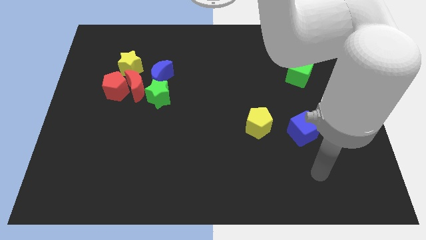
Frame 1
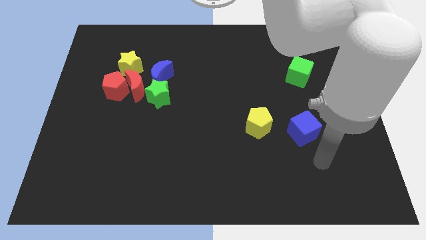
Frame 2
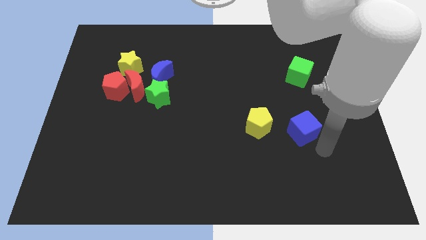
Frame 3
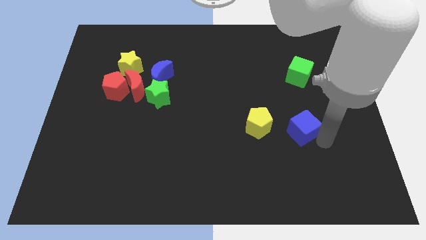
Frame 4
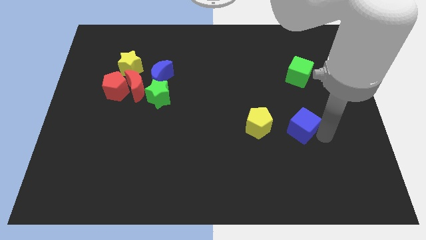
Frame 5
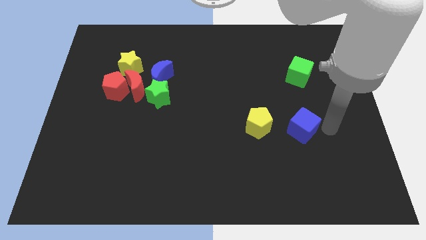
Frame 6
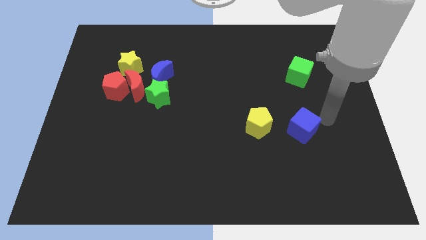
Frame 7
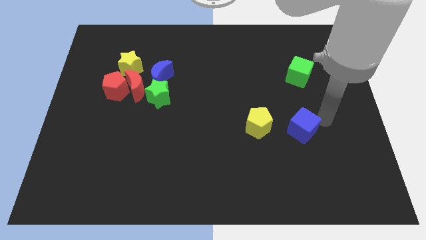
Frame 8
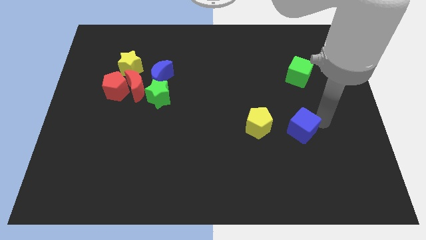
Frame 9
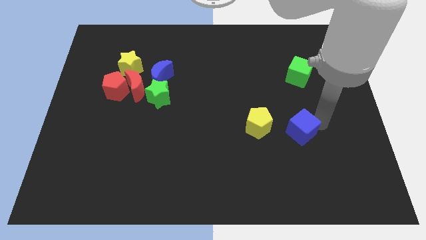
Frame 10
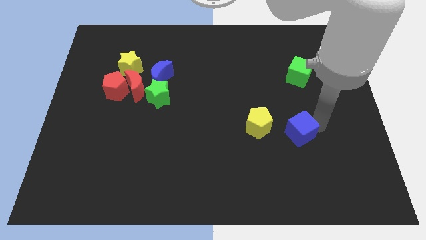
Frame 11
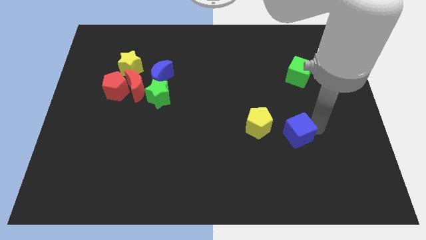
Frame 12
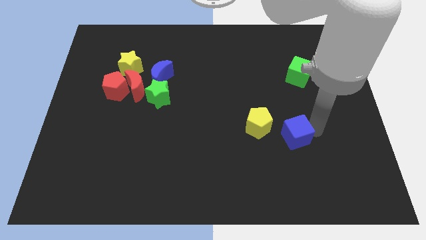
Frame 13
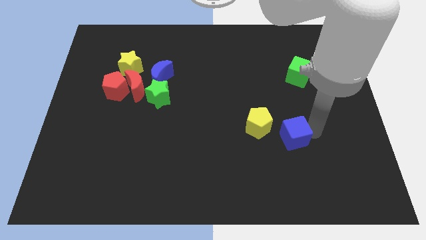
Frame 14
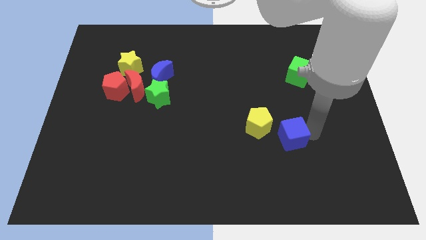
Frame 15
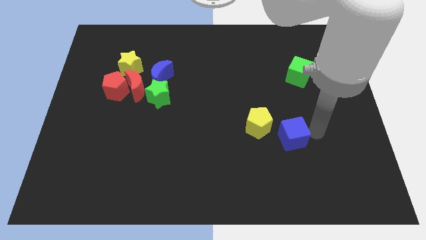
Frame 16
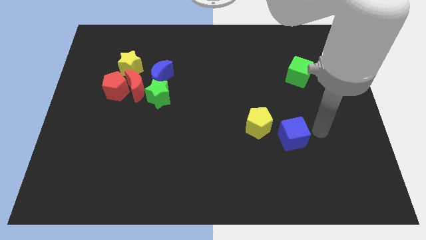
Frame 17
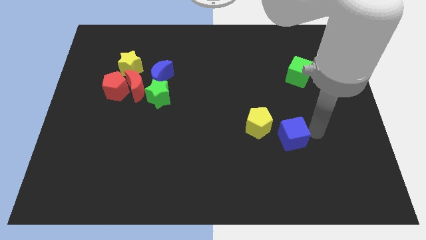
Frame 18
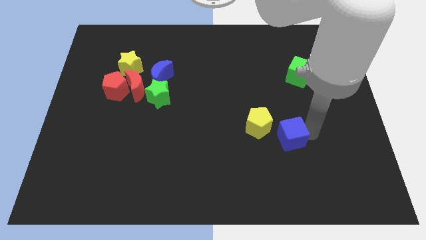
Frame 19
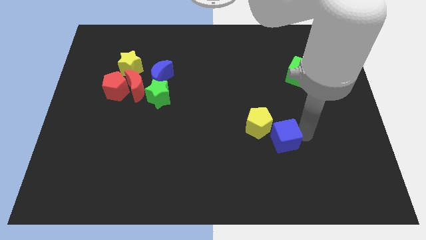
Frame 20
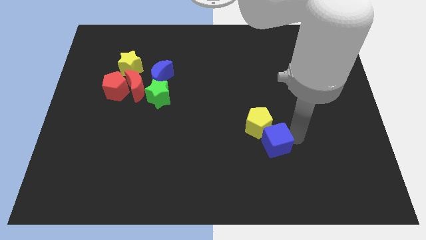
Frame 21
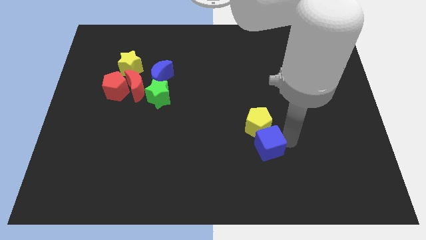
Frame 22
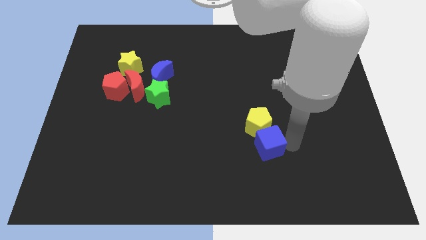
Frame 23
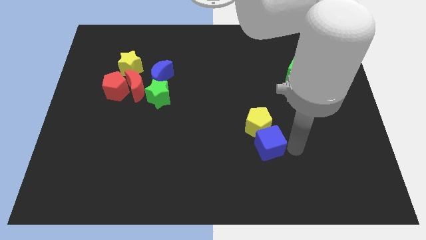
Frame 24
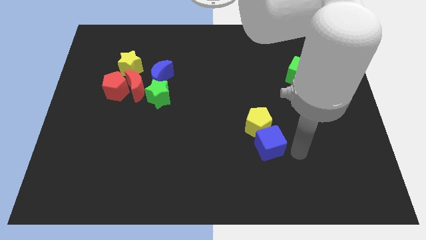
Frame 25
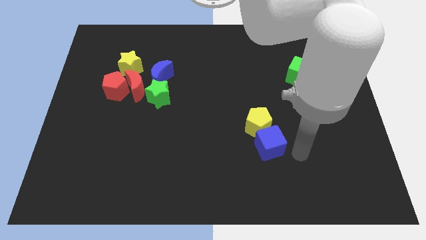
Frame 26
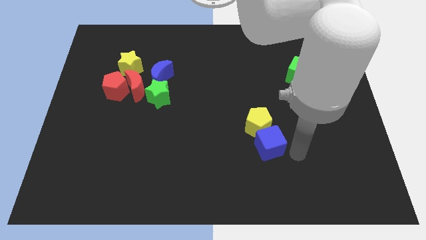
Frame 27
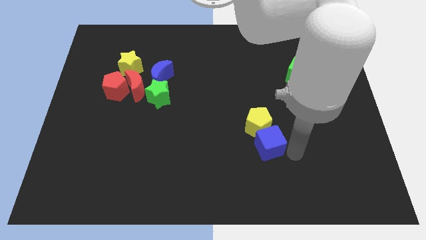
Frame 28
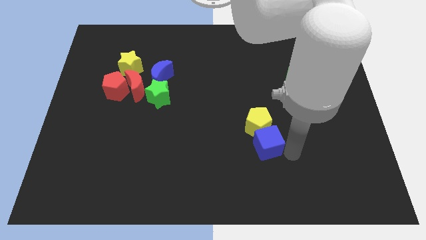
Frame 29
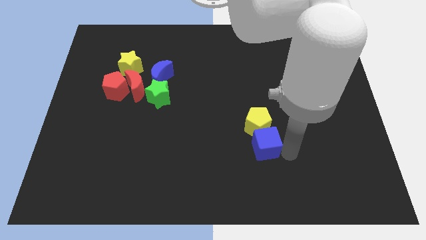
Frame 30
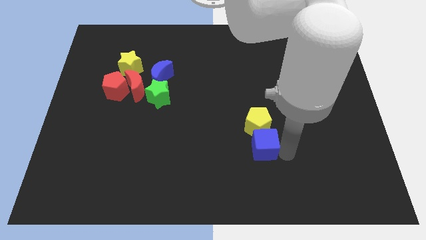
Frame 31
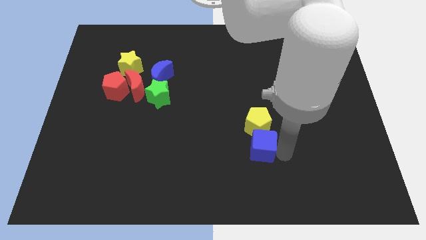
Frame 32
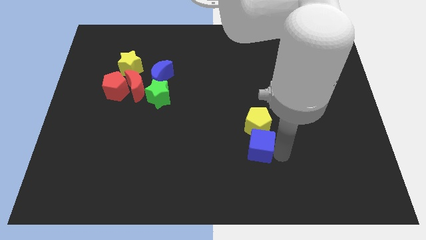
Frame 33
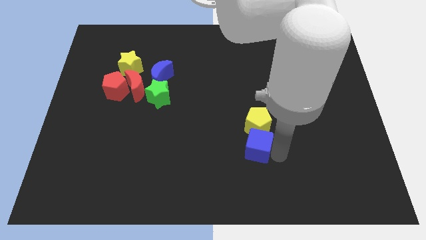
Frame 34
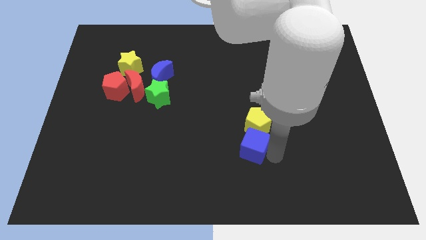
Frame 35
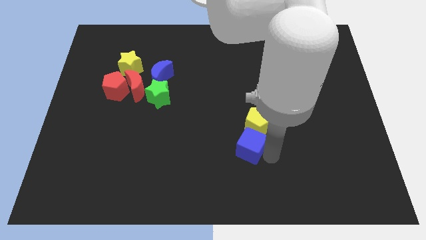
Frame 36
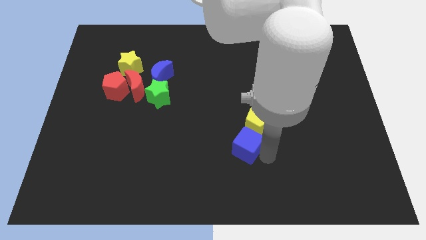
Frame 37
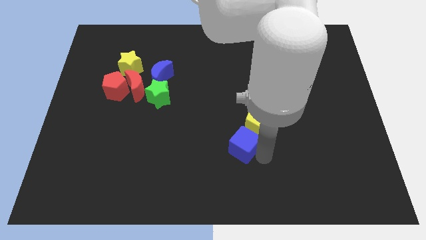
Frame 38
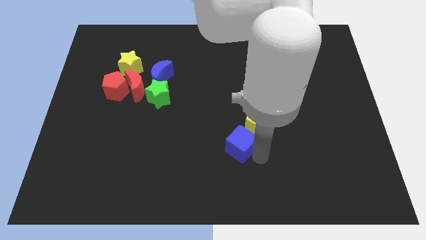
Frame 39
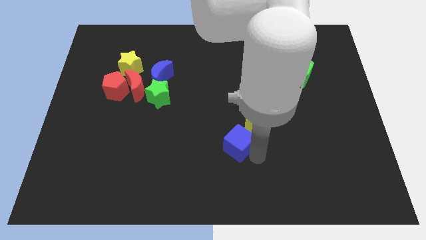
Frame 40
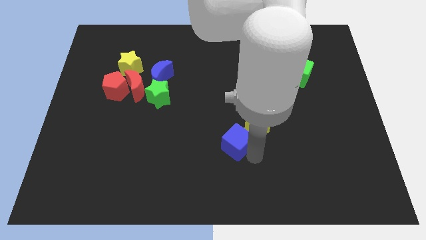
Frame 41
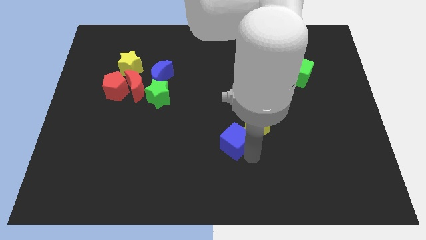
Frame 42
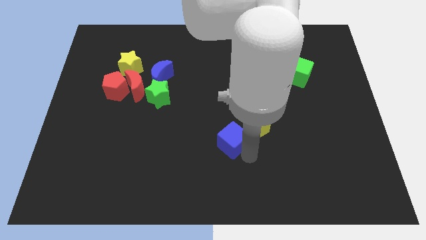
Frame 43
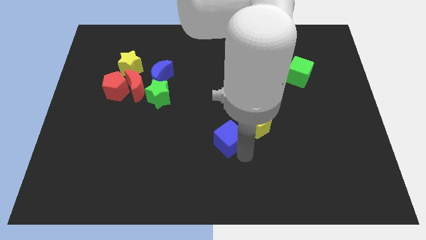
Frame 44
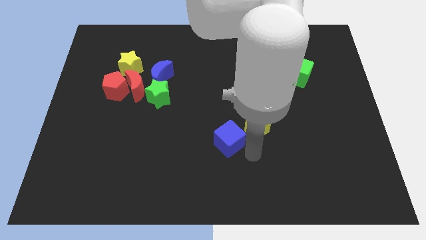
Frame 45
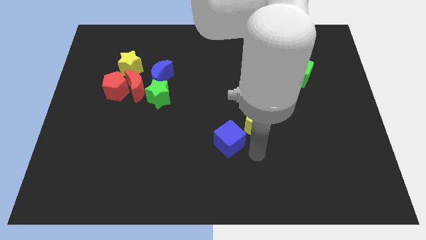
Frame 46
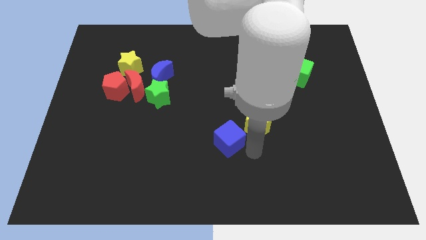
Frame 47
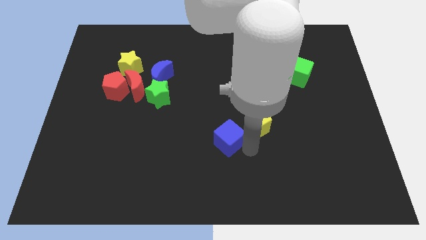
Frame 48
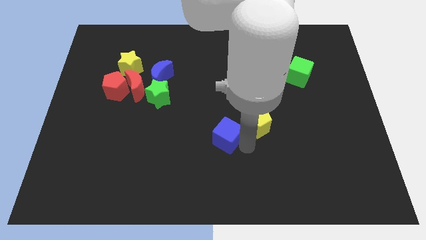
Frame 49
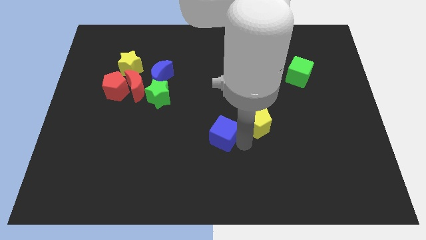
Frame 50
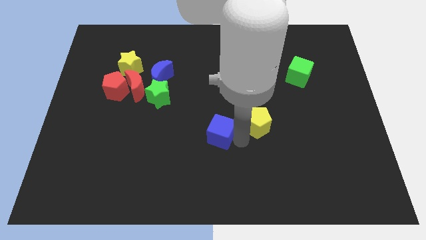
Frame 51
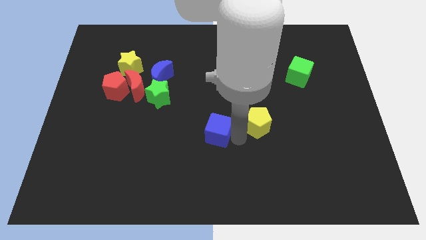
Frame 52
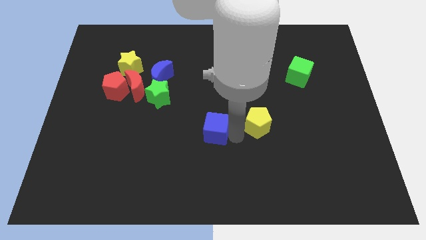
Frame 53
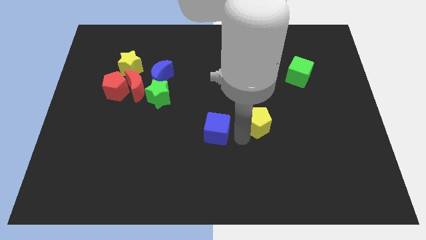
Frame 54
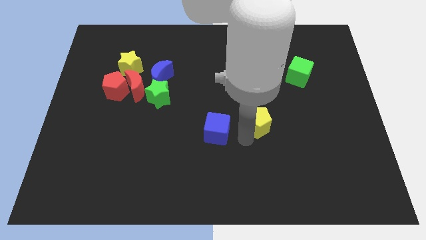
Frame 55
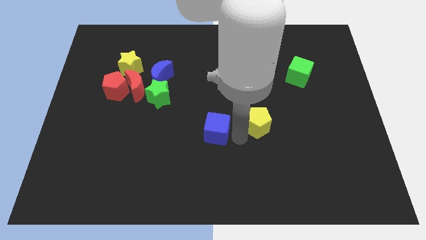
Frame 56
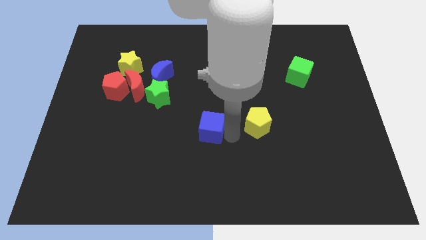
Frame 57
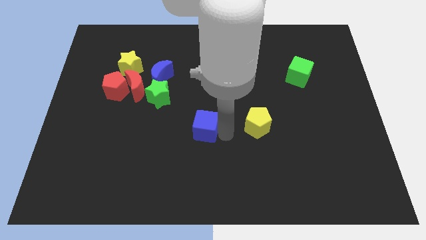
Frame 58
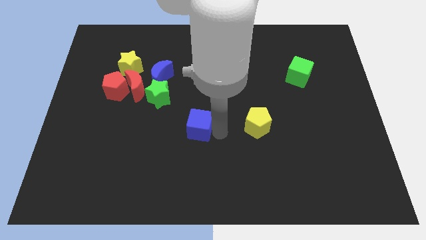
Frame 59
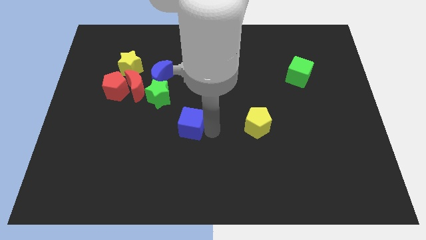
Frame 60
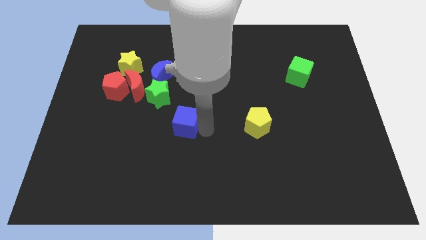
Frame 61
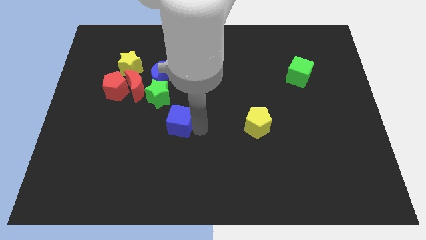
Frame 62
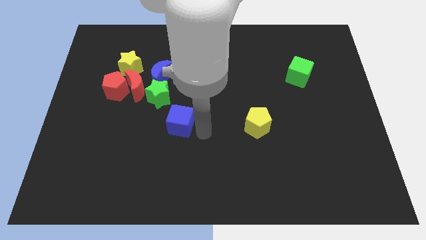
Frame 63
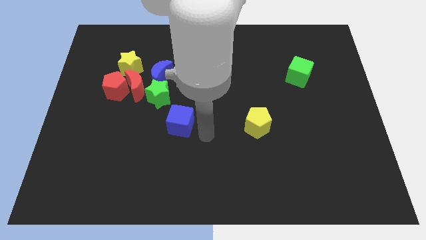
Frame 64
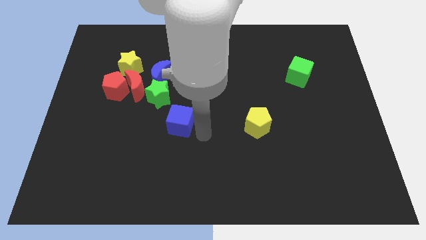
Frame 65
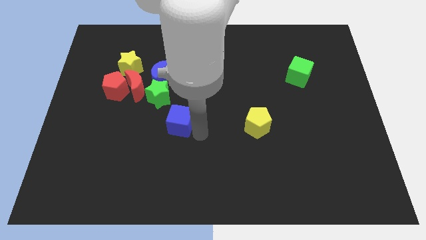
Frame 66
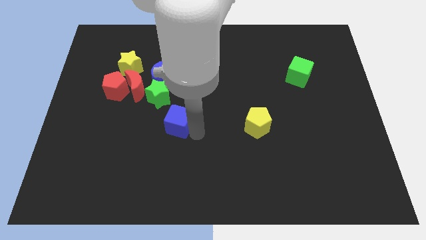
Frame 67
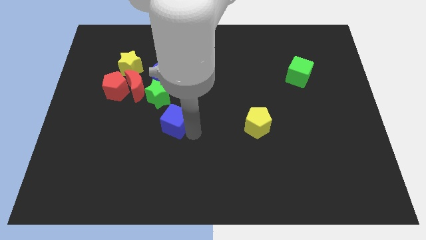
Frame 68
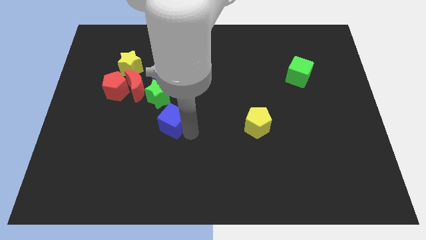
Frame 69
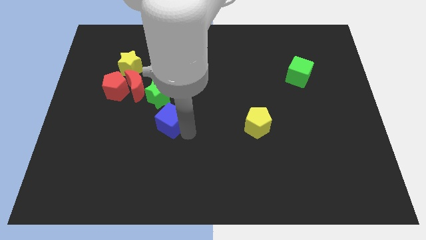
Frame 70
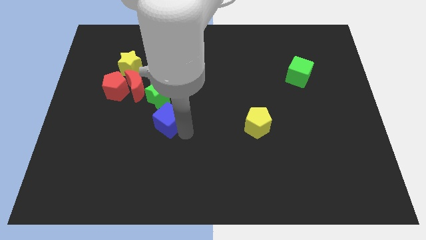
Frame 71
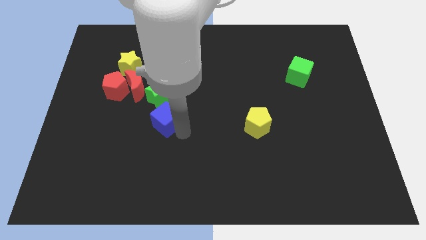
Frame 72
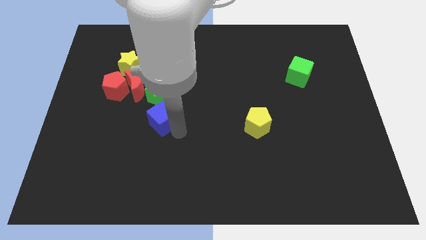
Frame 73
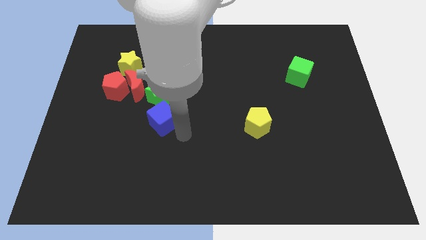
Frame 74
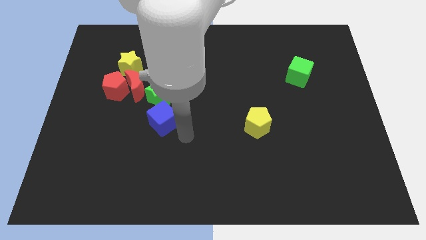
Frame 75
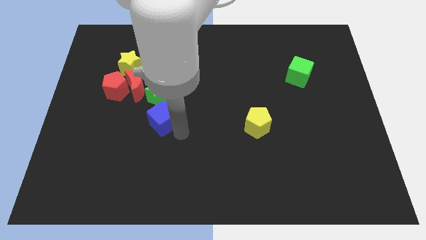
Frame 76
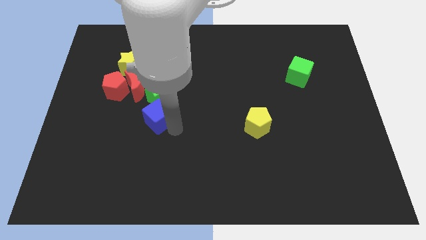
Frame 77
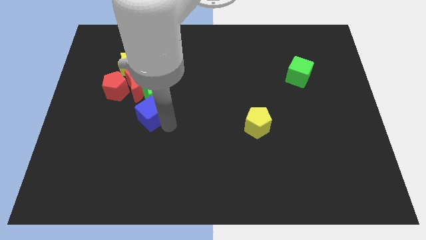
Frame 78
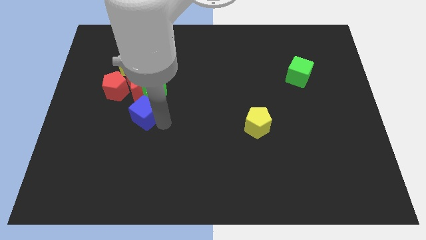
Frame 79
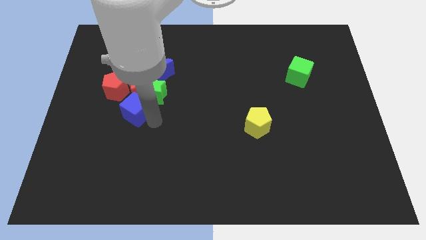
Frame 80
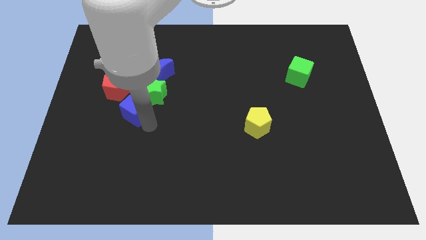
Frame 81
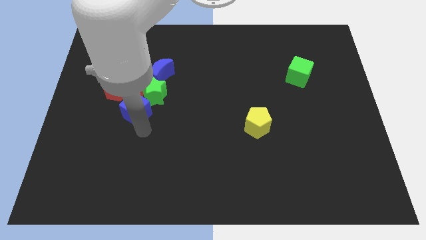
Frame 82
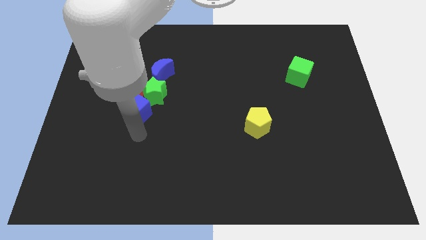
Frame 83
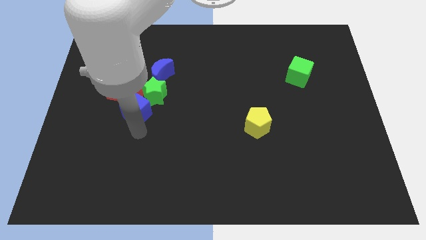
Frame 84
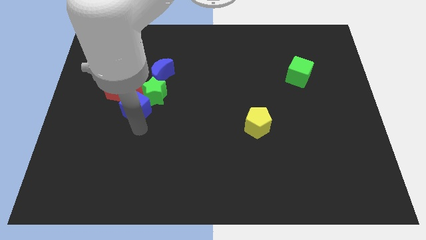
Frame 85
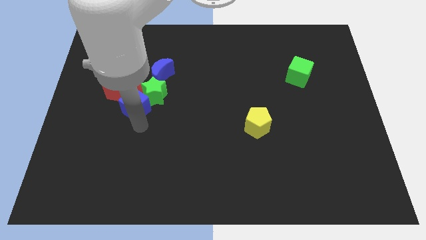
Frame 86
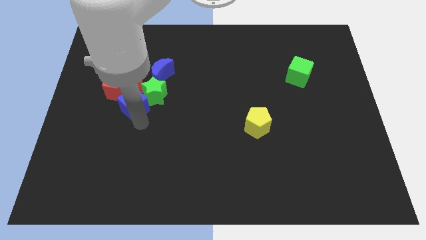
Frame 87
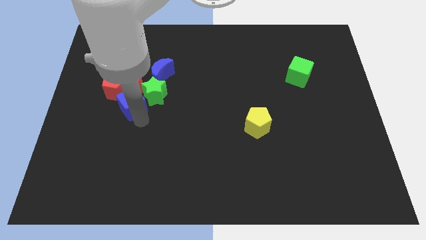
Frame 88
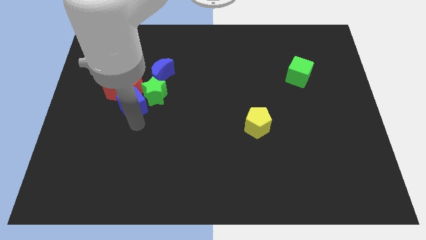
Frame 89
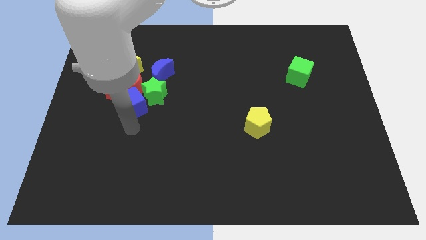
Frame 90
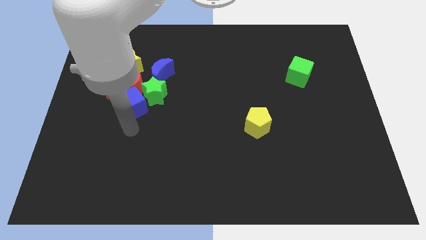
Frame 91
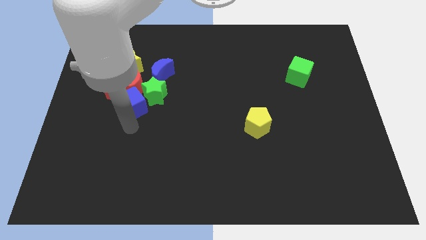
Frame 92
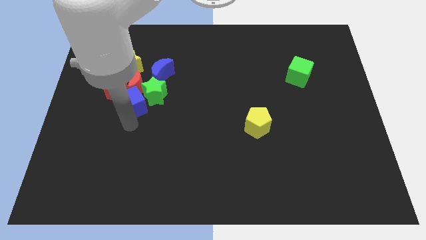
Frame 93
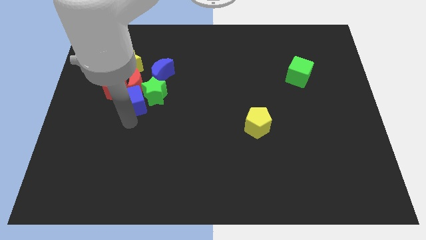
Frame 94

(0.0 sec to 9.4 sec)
move the blue cube towards the red moon
